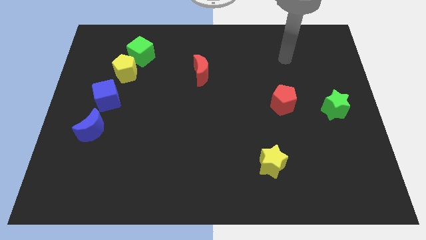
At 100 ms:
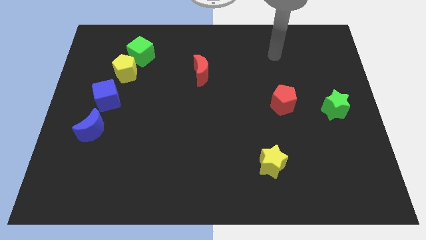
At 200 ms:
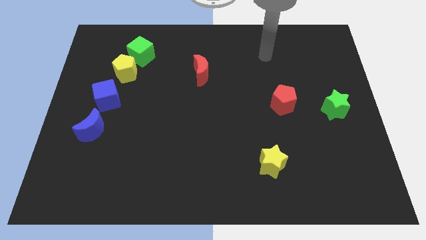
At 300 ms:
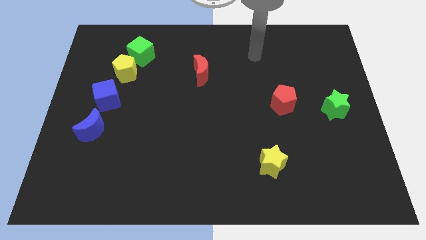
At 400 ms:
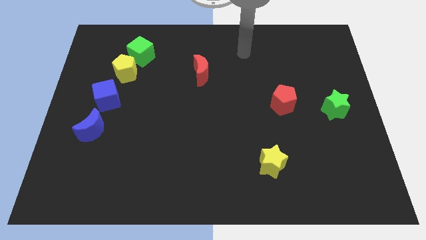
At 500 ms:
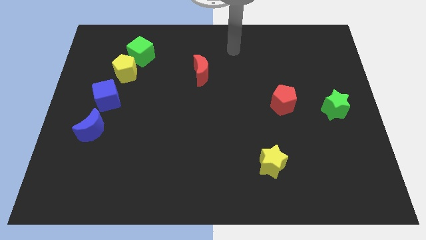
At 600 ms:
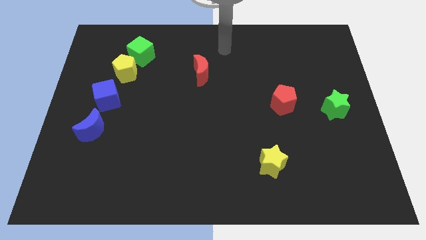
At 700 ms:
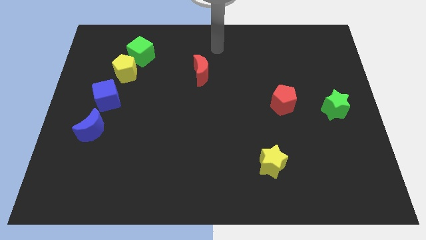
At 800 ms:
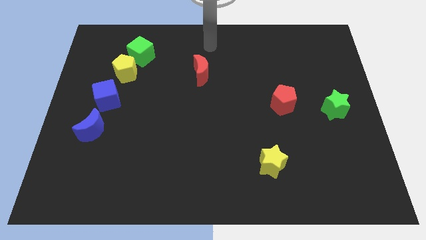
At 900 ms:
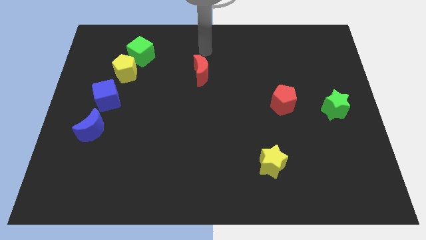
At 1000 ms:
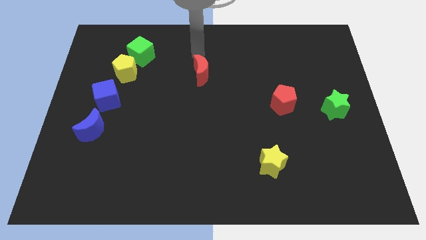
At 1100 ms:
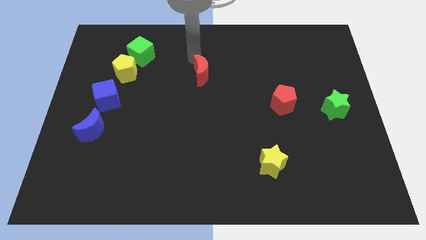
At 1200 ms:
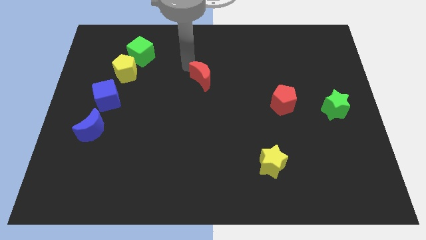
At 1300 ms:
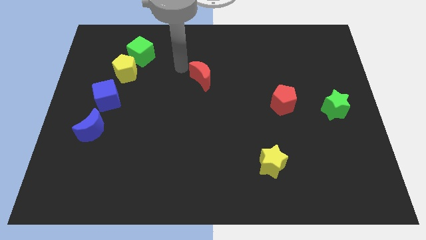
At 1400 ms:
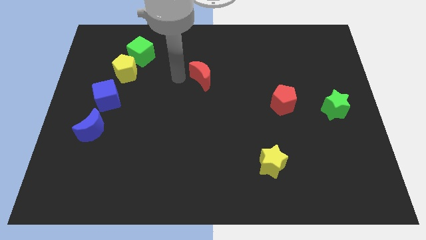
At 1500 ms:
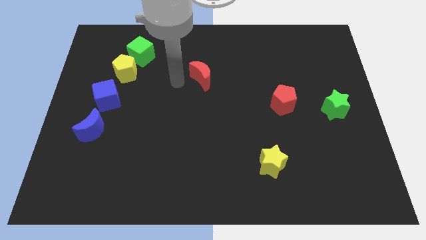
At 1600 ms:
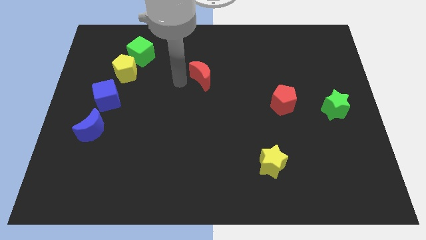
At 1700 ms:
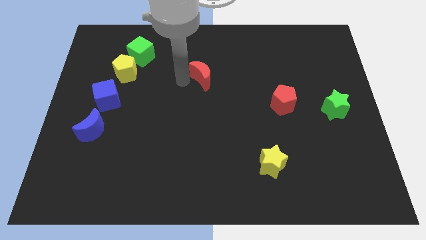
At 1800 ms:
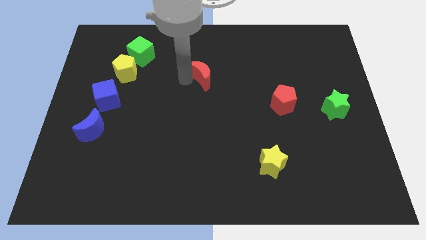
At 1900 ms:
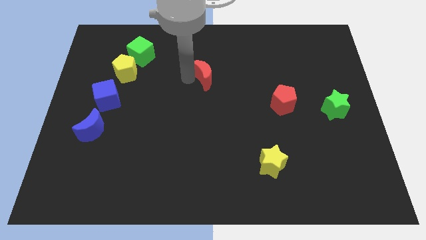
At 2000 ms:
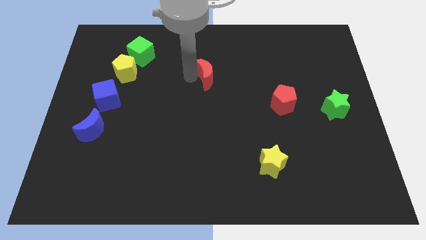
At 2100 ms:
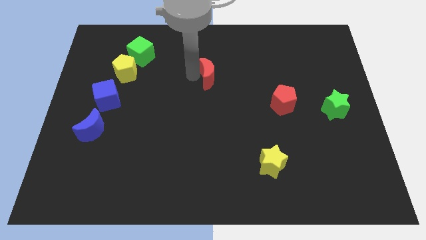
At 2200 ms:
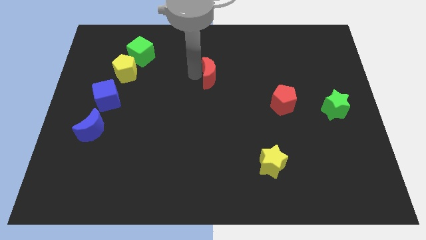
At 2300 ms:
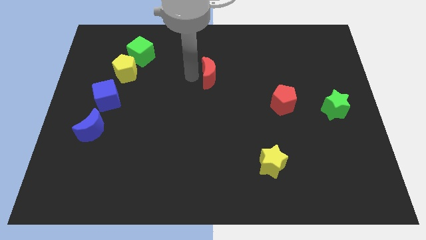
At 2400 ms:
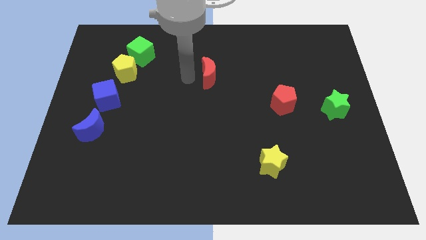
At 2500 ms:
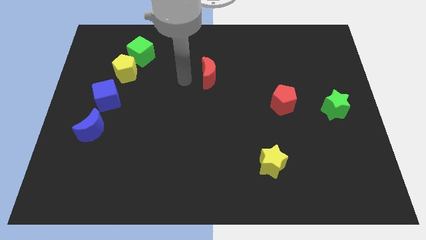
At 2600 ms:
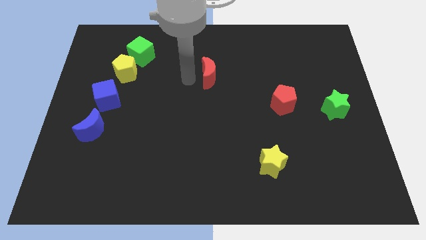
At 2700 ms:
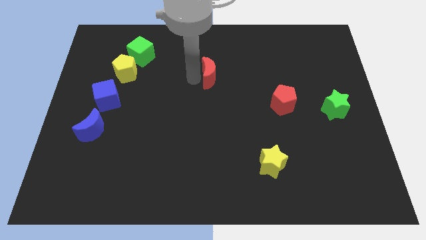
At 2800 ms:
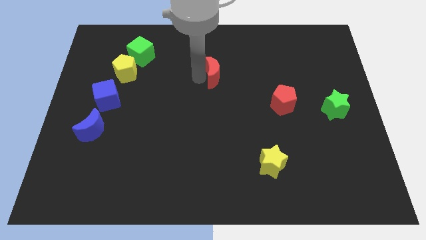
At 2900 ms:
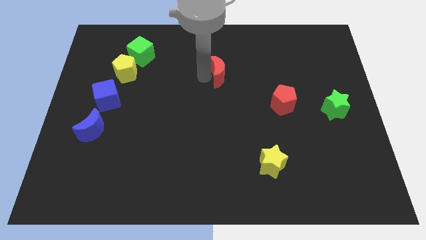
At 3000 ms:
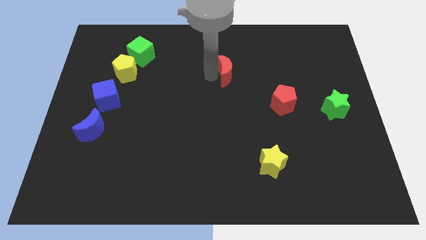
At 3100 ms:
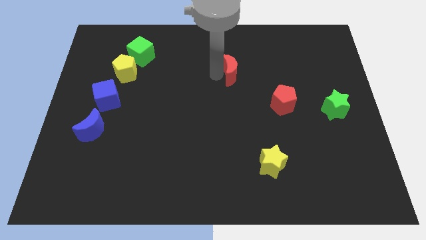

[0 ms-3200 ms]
move the red moon a bit to the right

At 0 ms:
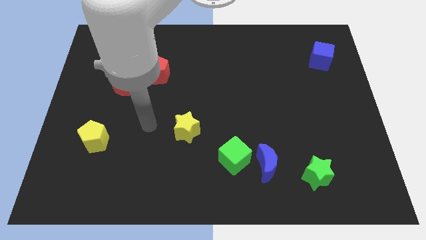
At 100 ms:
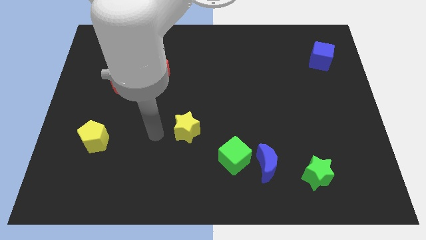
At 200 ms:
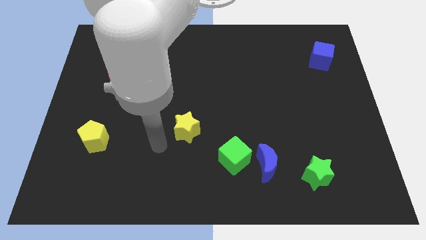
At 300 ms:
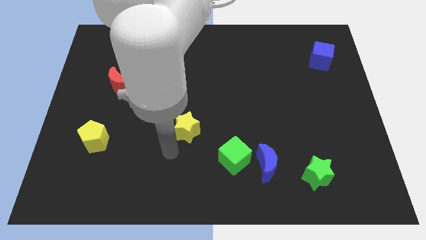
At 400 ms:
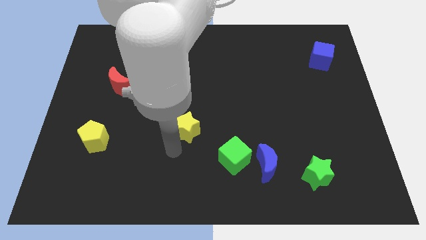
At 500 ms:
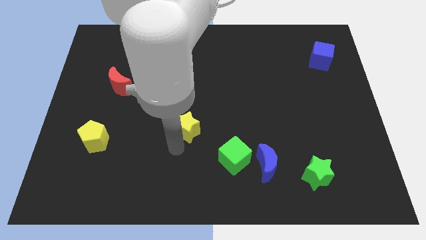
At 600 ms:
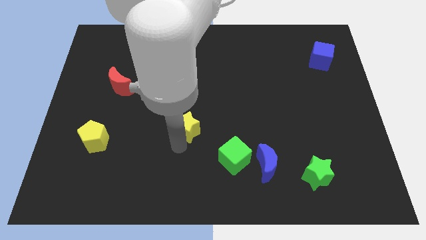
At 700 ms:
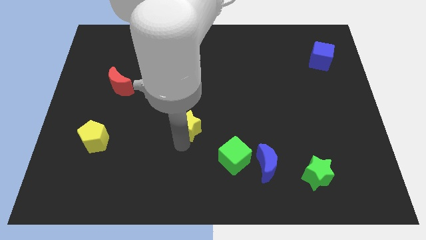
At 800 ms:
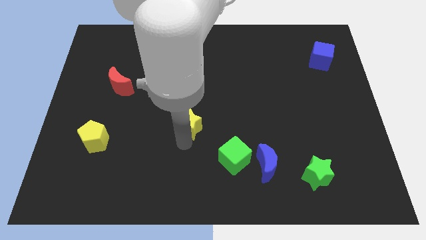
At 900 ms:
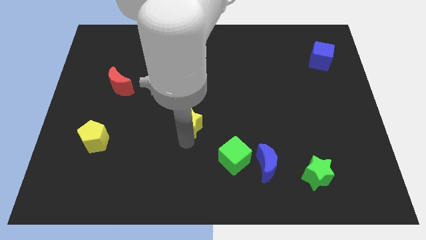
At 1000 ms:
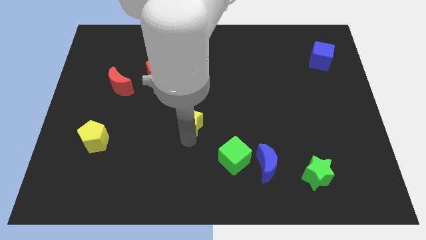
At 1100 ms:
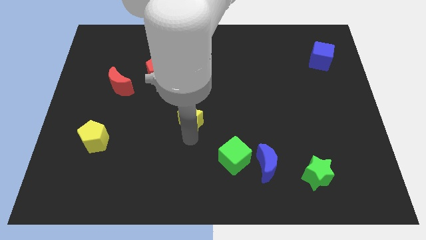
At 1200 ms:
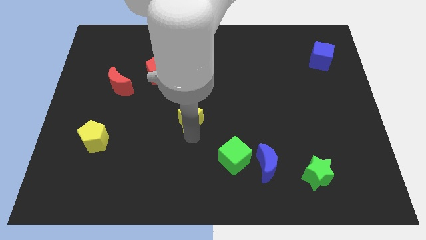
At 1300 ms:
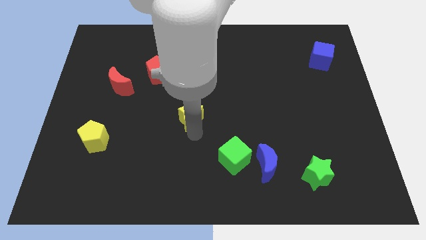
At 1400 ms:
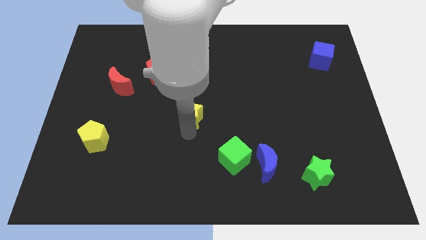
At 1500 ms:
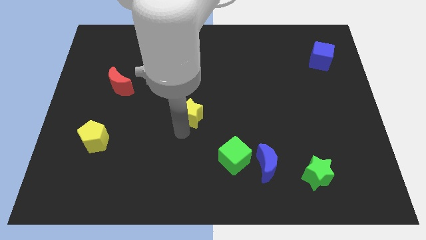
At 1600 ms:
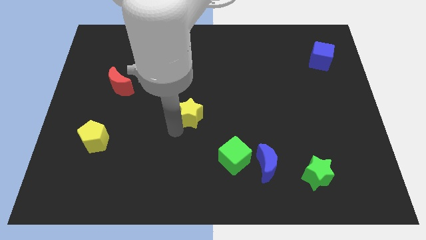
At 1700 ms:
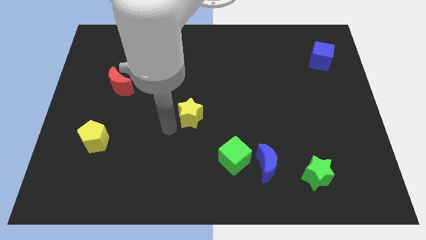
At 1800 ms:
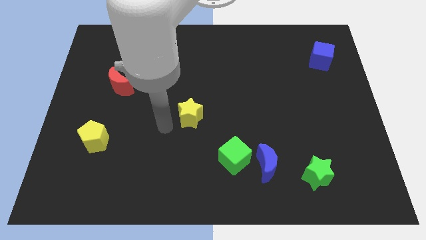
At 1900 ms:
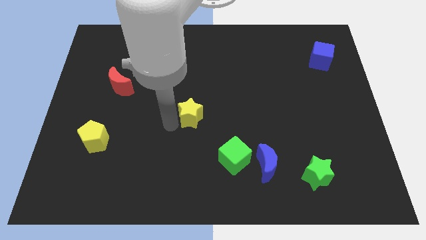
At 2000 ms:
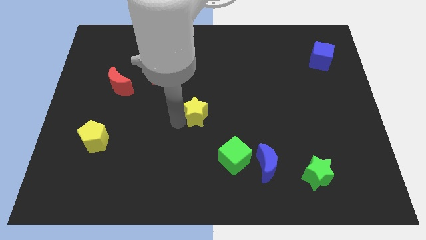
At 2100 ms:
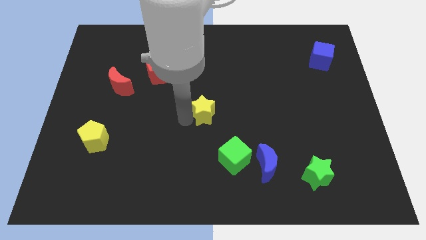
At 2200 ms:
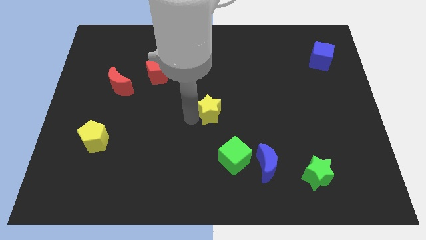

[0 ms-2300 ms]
push the yellow star slightly upwards and then right

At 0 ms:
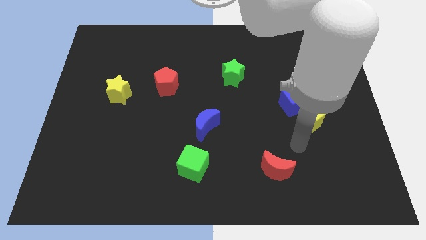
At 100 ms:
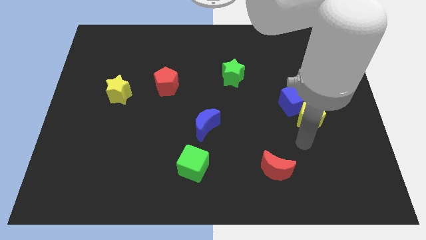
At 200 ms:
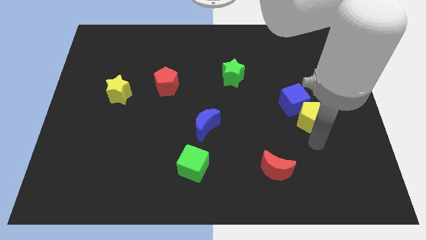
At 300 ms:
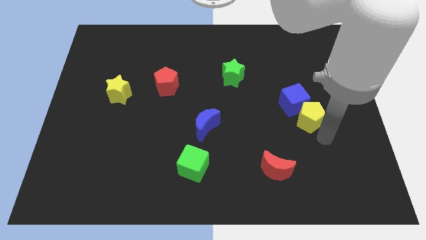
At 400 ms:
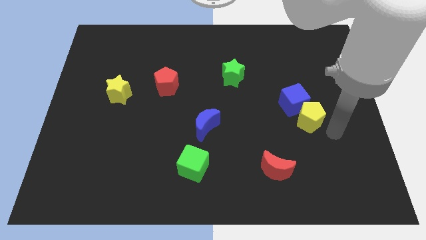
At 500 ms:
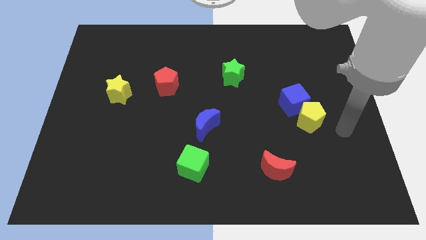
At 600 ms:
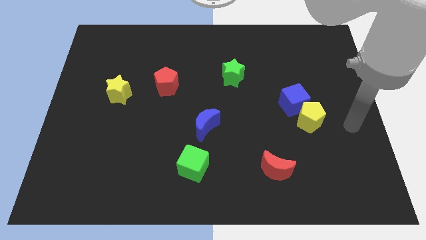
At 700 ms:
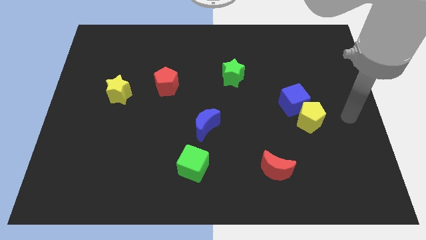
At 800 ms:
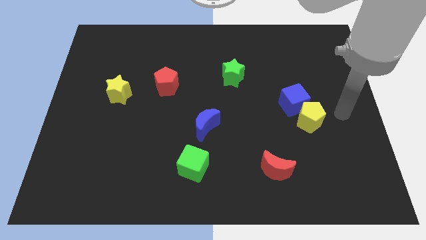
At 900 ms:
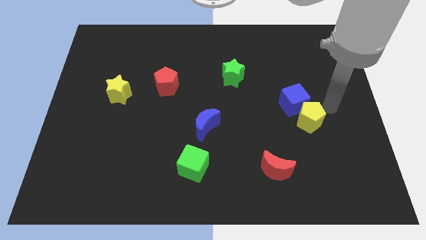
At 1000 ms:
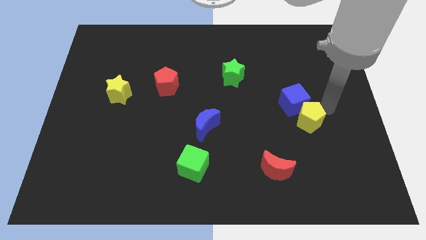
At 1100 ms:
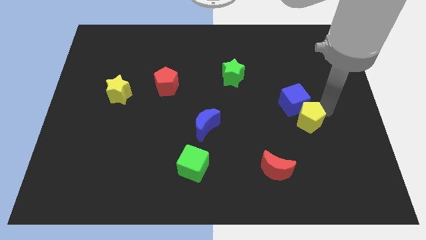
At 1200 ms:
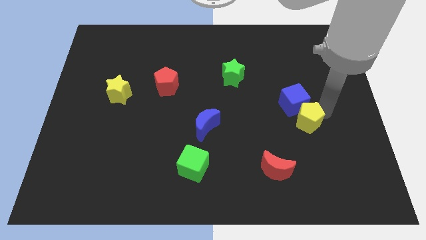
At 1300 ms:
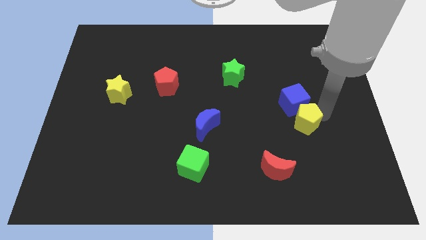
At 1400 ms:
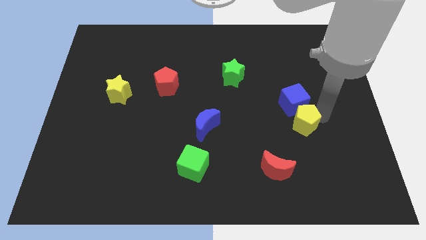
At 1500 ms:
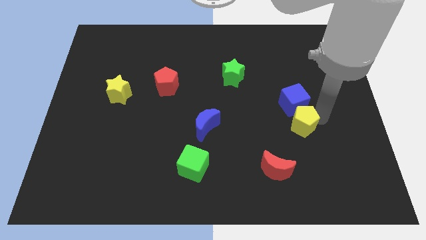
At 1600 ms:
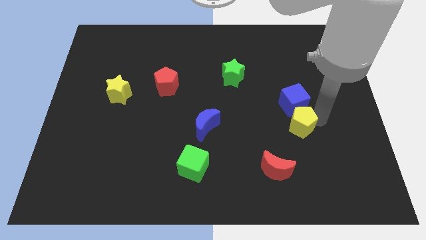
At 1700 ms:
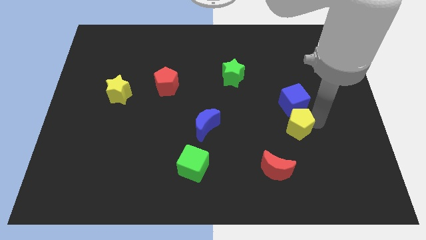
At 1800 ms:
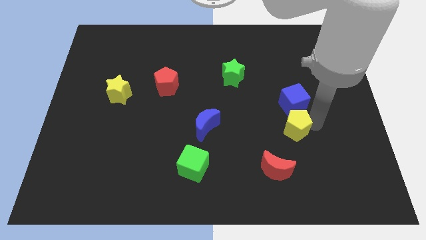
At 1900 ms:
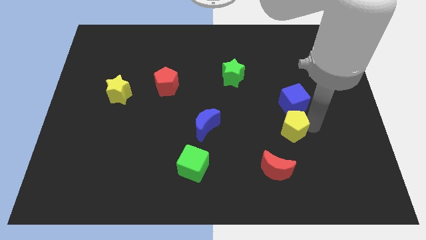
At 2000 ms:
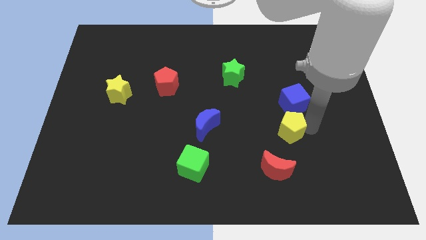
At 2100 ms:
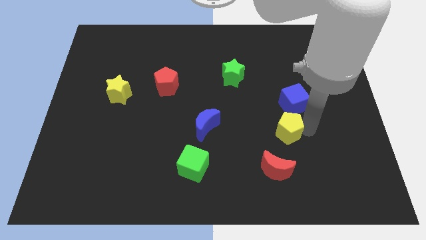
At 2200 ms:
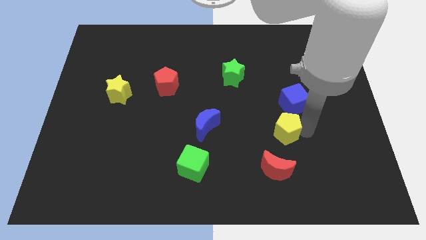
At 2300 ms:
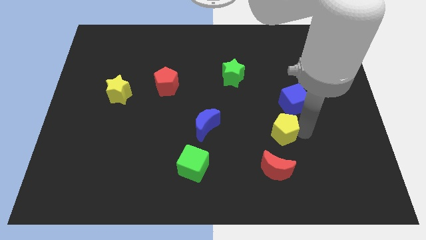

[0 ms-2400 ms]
slide the yellow pentagon diagonally down and to the left slightly

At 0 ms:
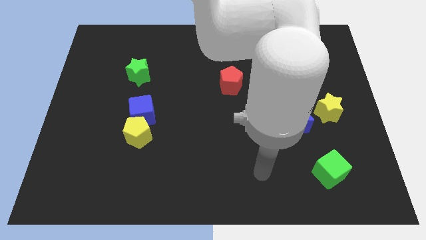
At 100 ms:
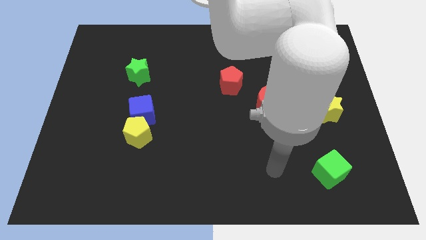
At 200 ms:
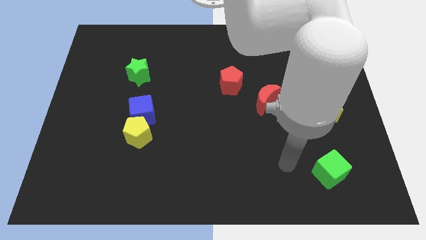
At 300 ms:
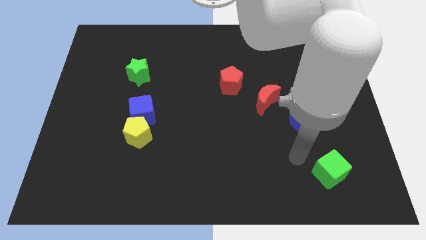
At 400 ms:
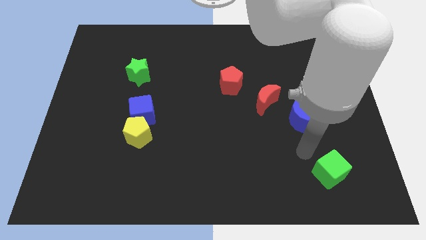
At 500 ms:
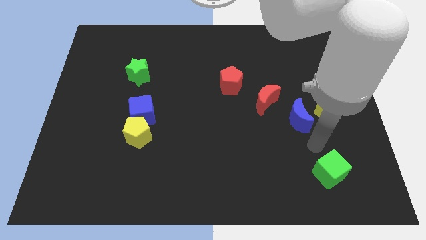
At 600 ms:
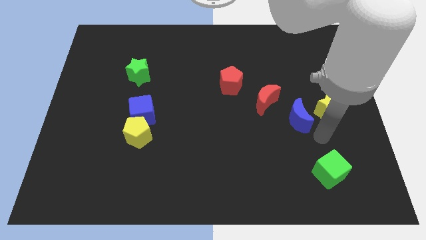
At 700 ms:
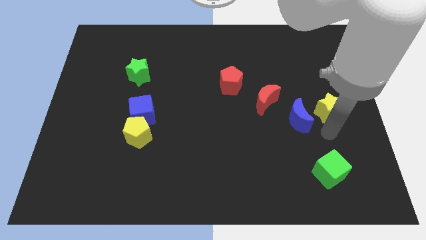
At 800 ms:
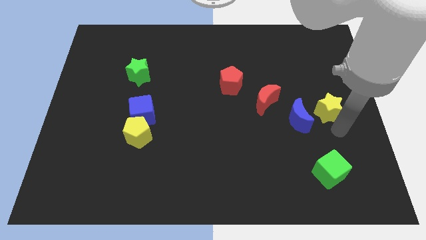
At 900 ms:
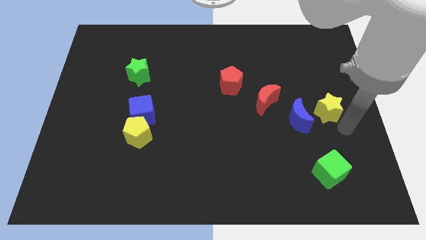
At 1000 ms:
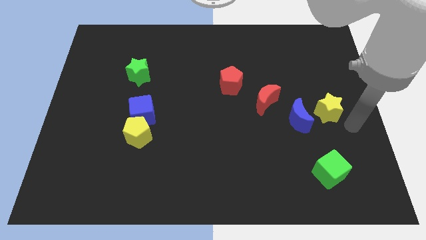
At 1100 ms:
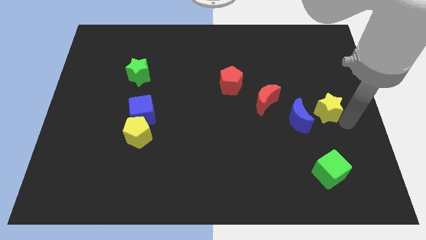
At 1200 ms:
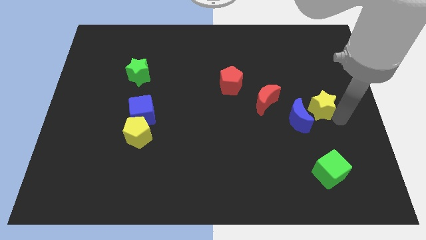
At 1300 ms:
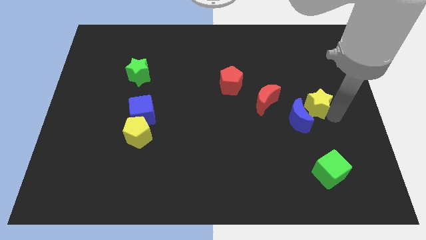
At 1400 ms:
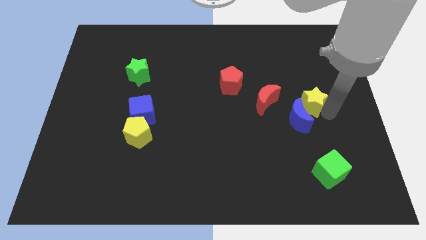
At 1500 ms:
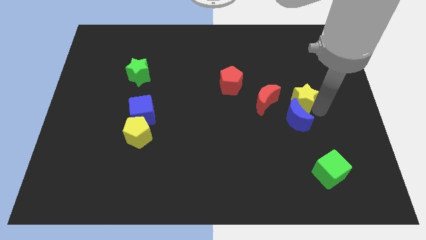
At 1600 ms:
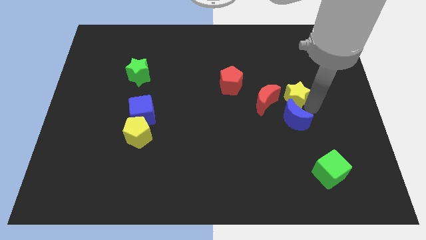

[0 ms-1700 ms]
push the yellow star upwards and left somewhat
